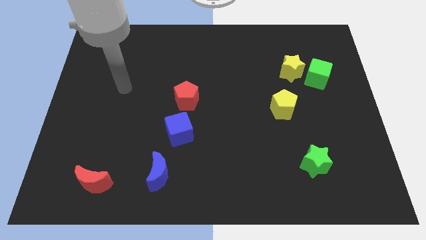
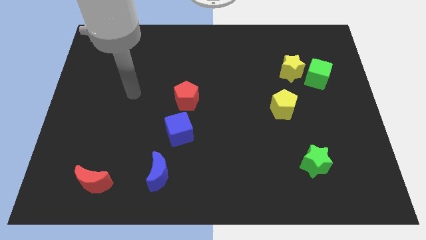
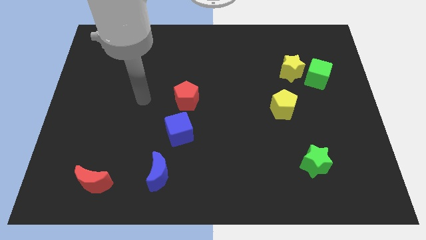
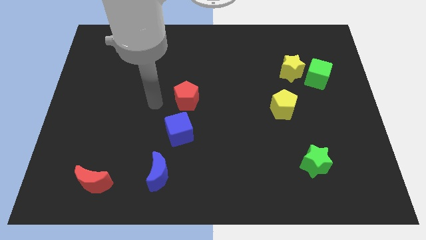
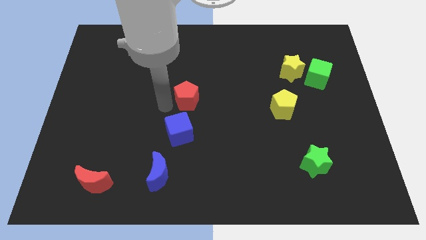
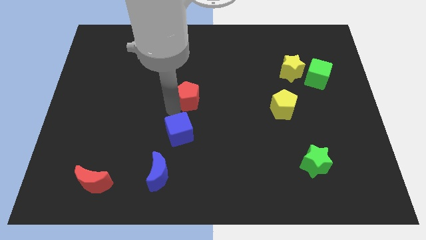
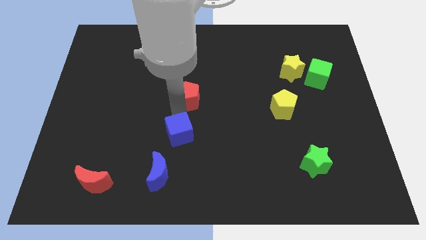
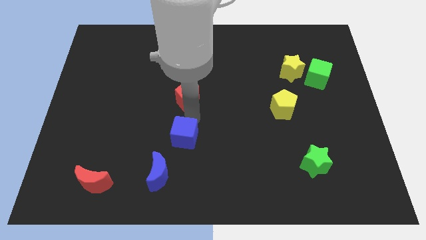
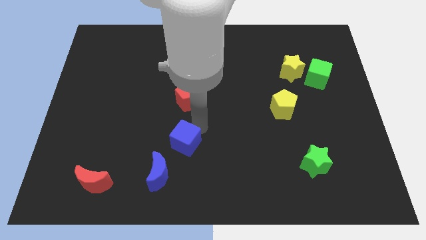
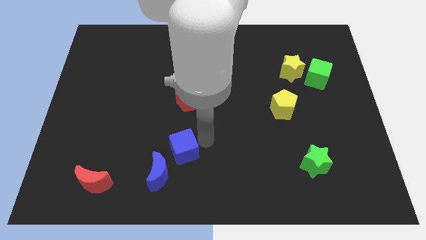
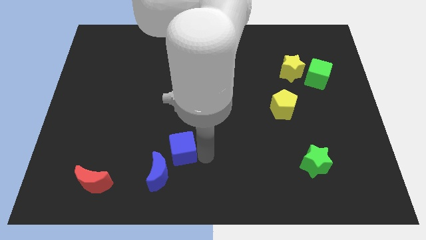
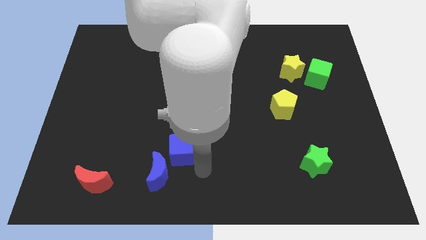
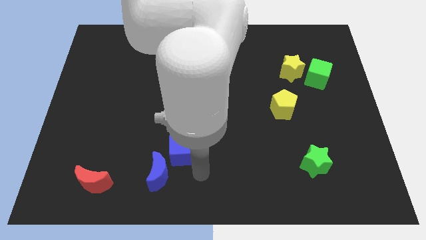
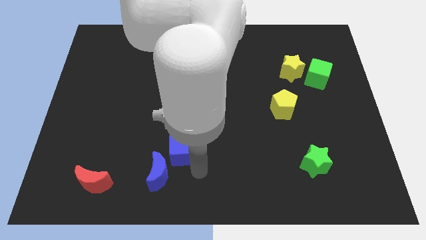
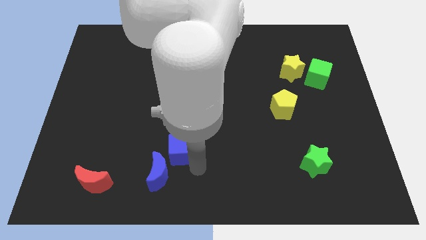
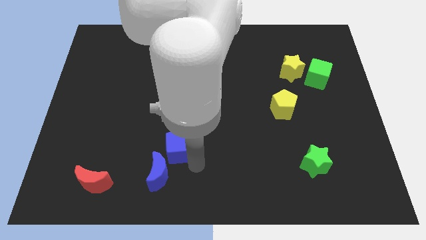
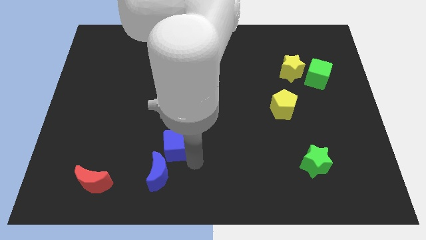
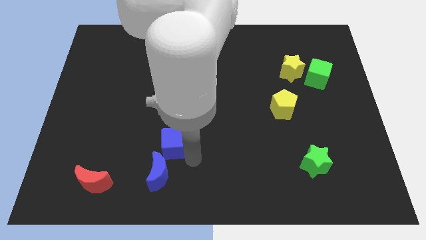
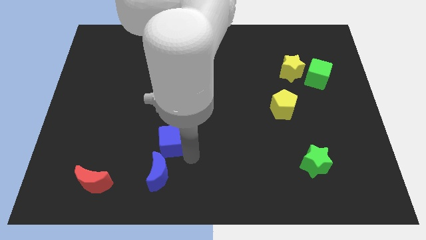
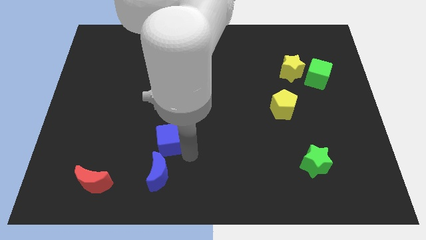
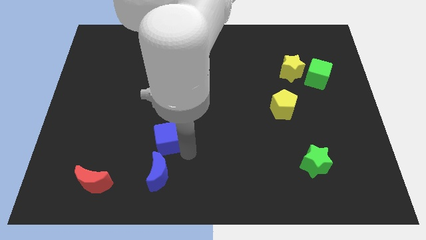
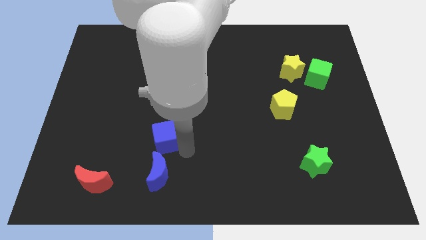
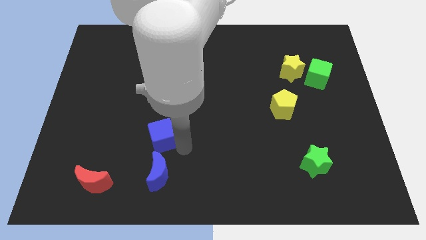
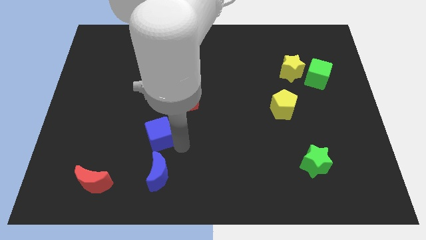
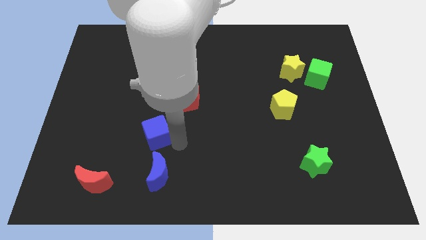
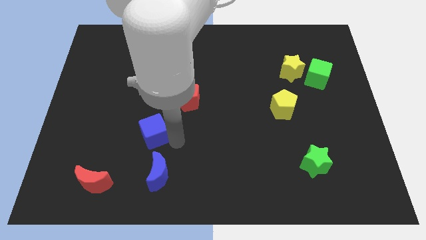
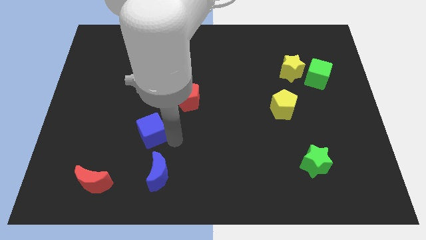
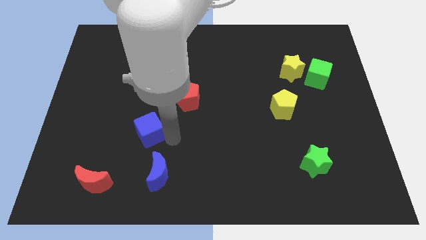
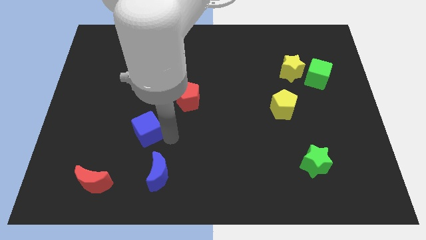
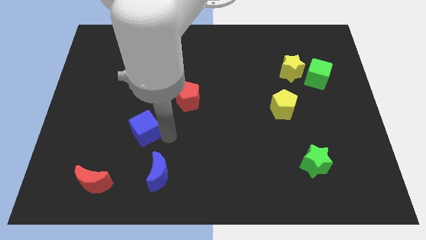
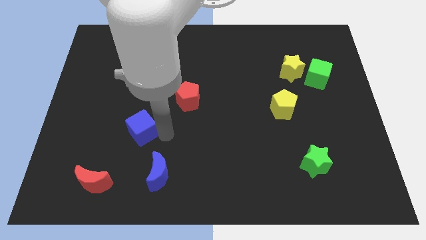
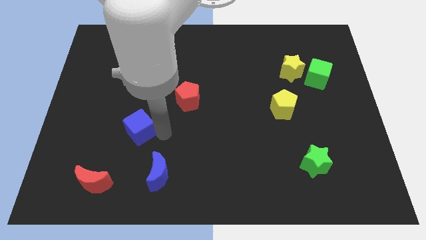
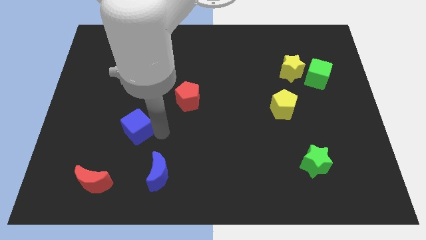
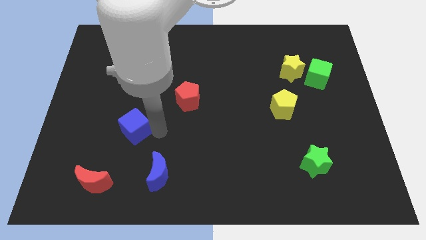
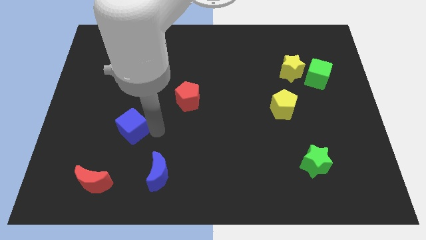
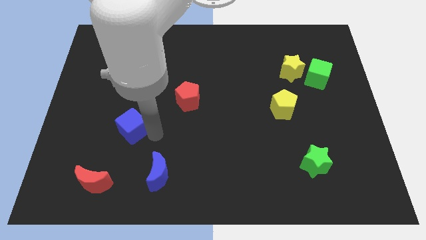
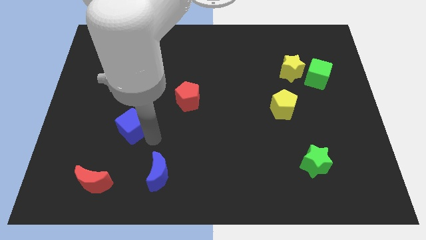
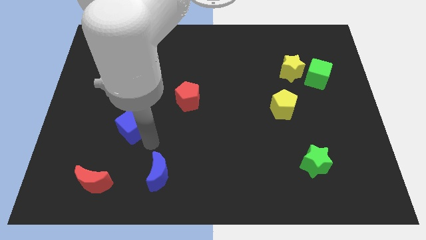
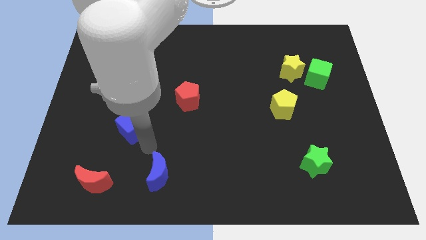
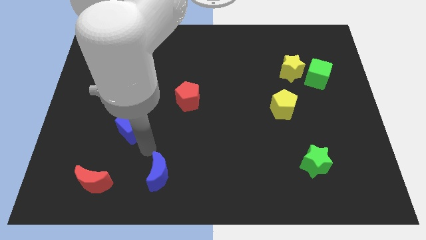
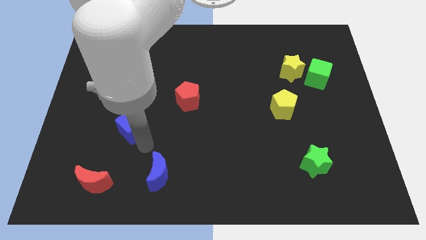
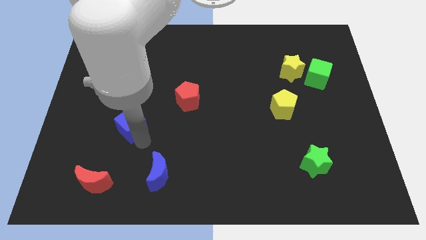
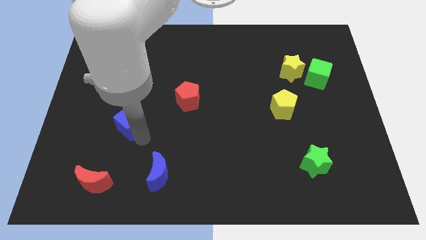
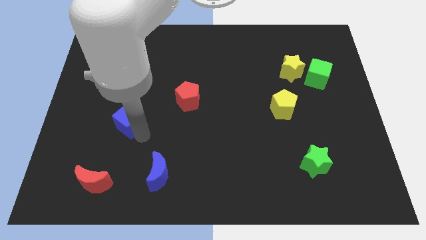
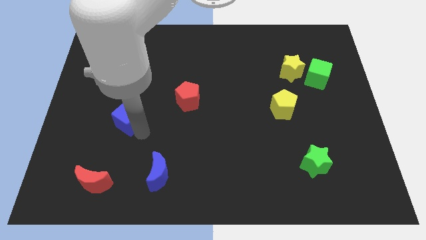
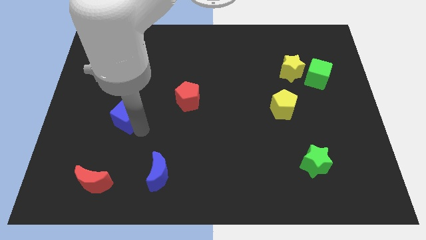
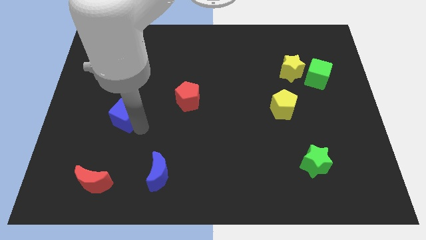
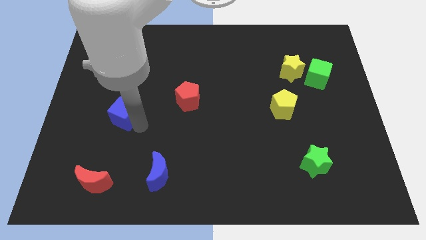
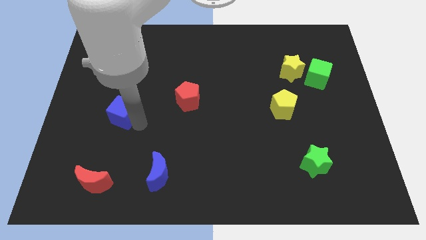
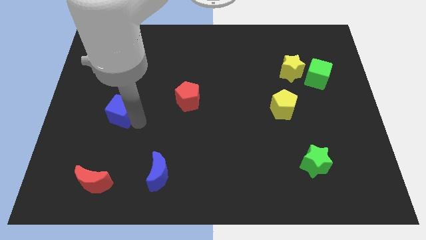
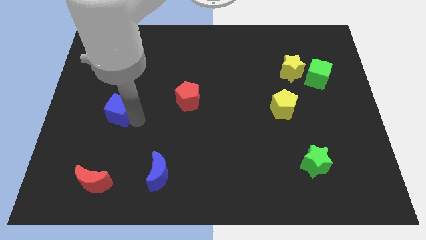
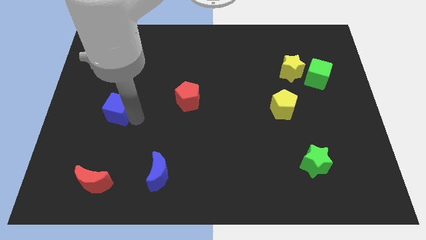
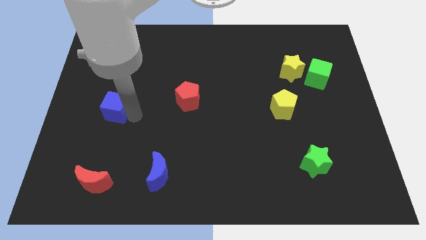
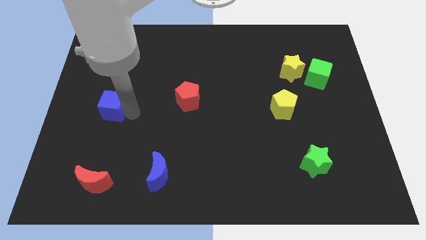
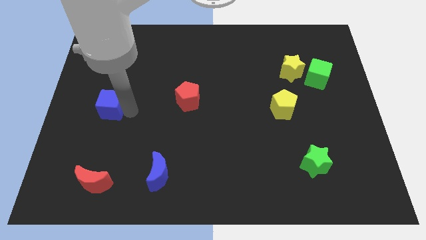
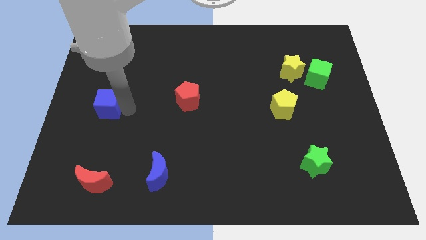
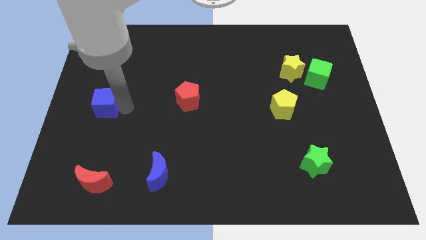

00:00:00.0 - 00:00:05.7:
push the blue cube to the left side
